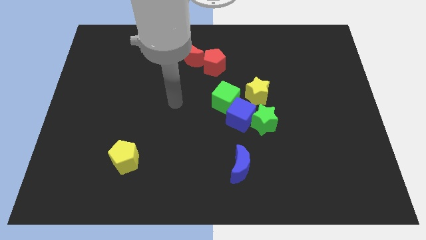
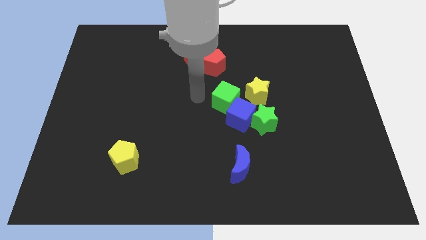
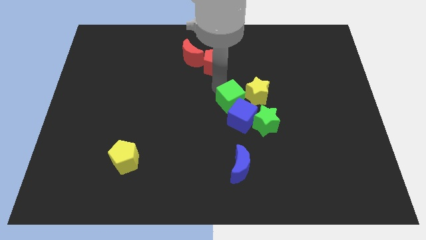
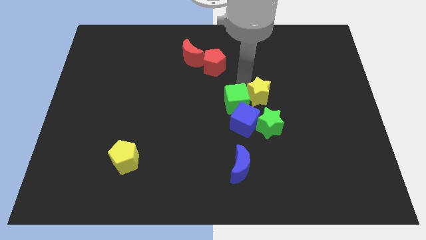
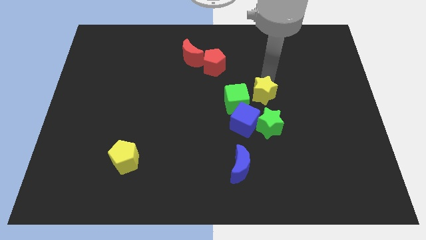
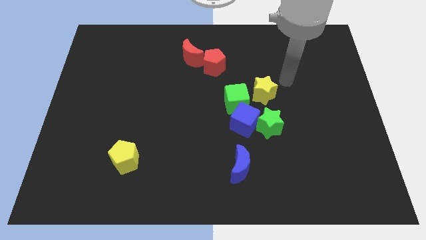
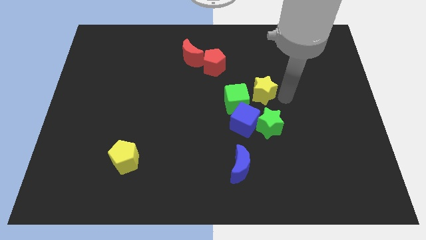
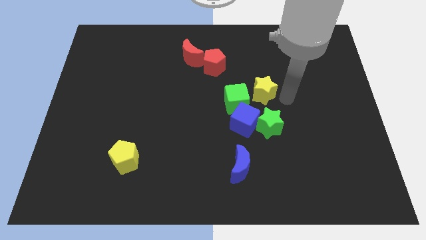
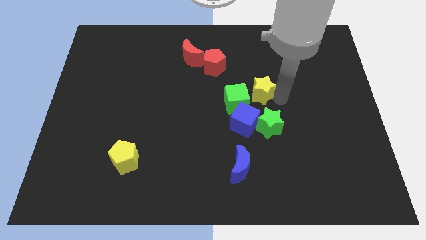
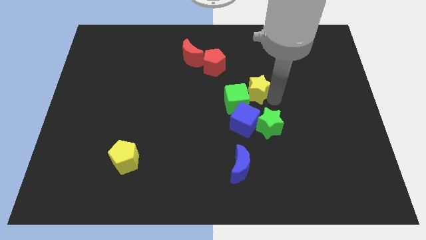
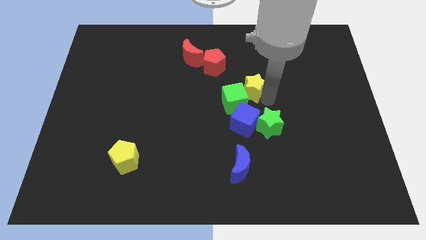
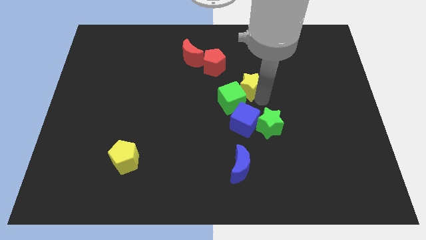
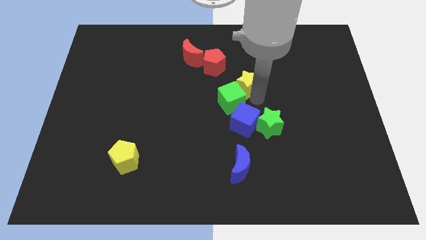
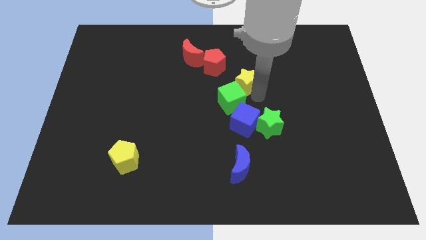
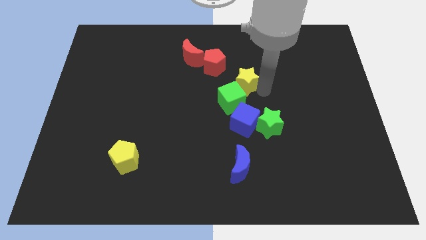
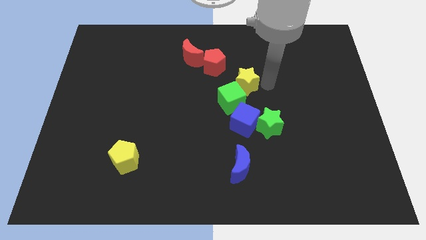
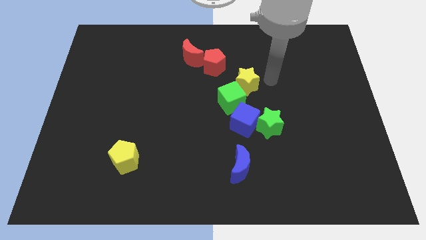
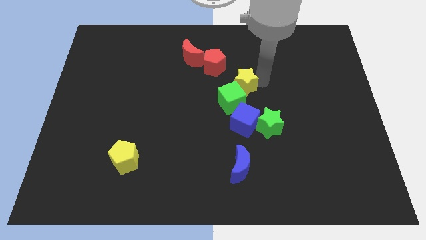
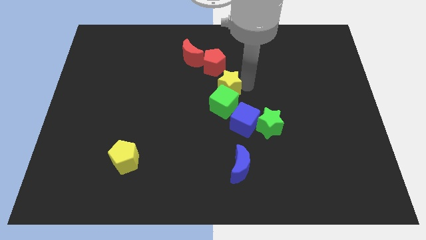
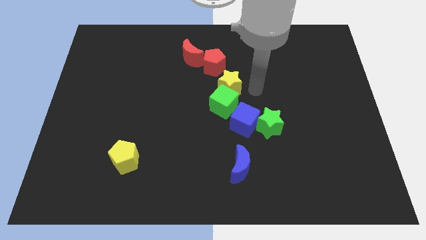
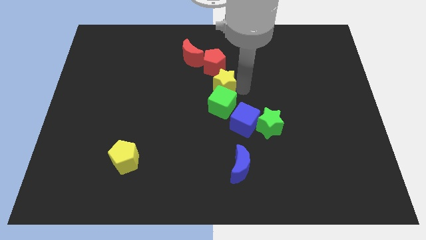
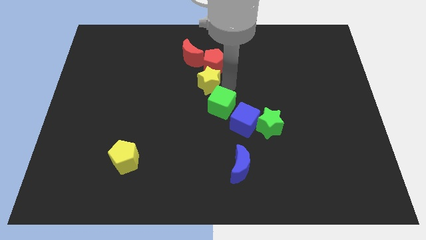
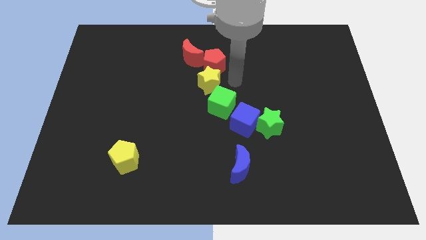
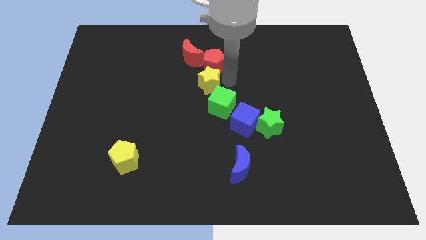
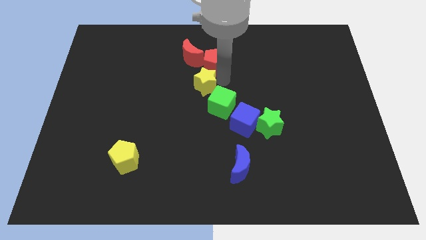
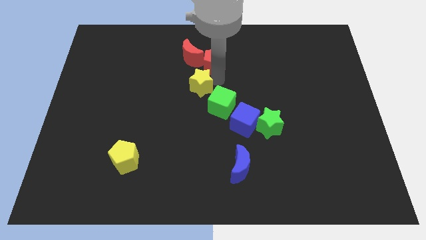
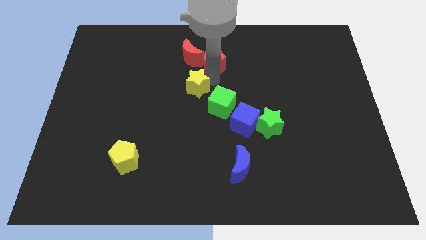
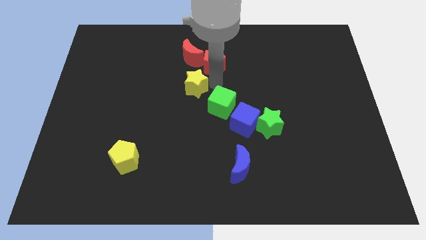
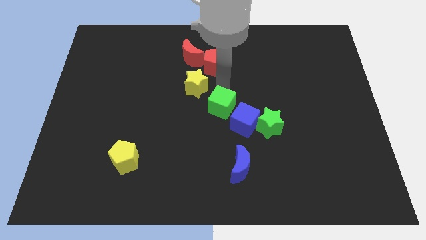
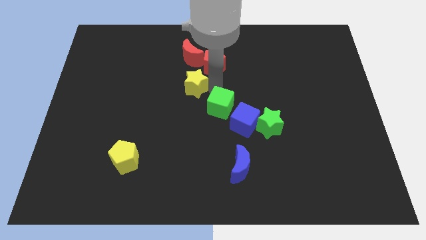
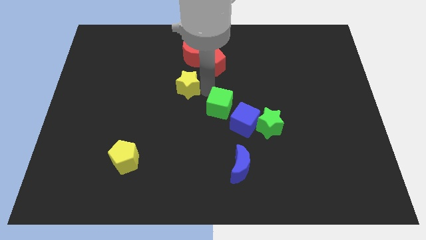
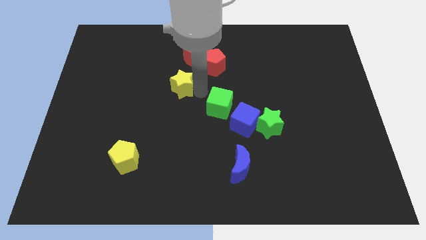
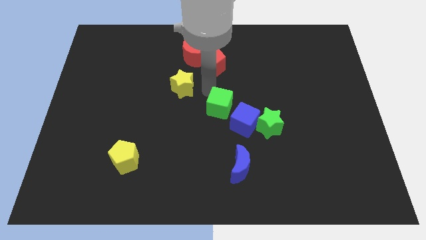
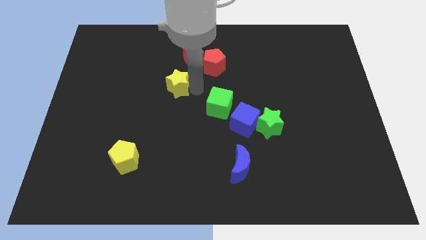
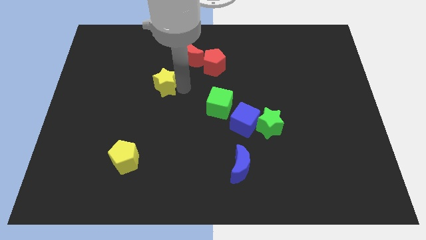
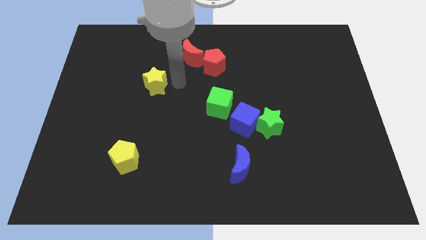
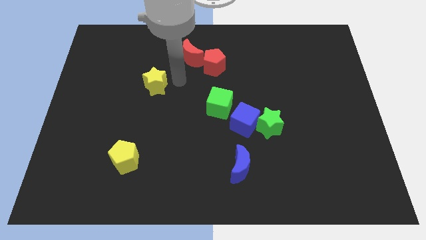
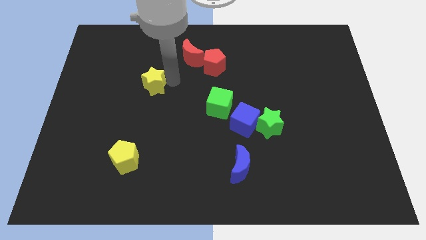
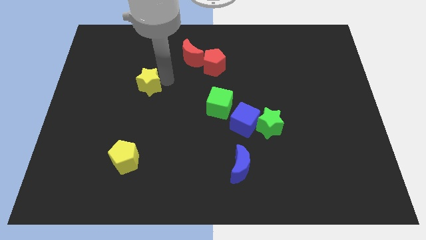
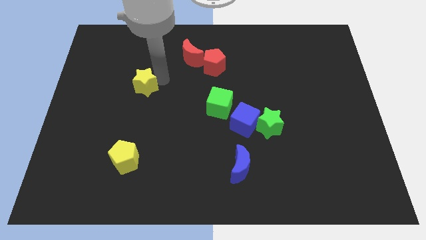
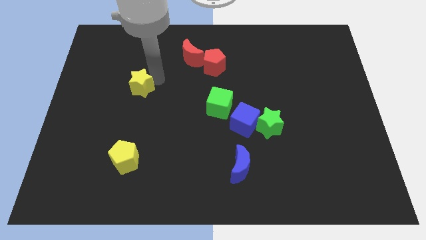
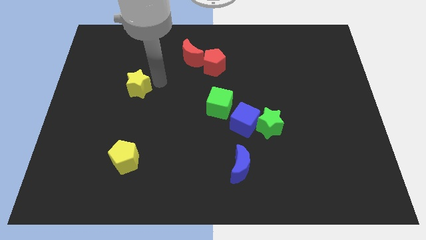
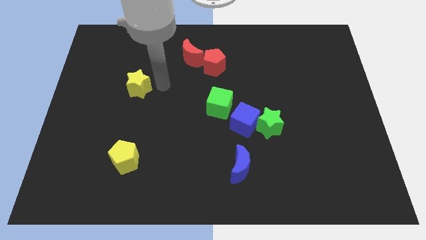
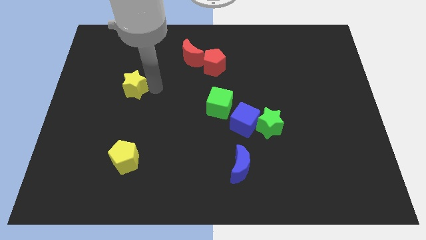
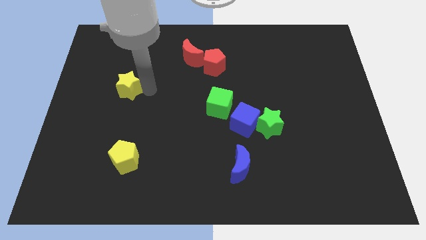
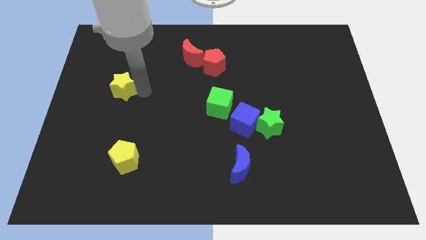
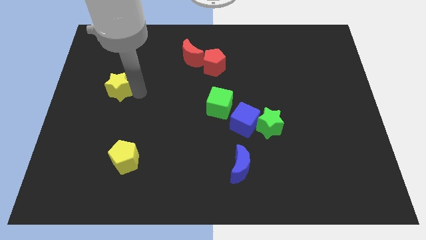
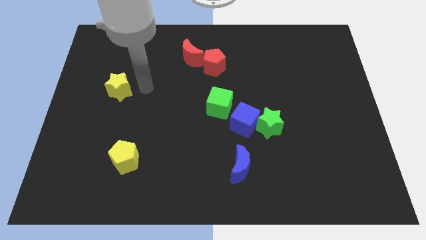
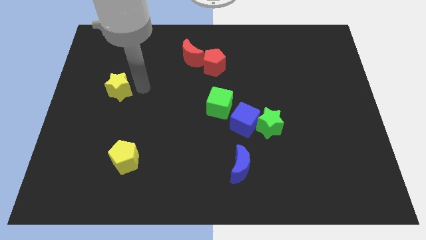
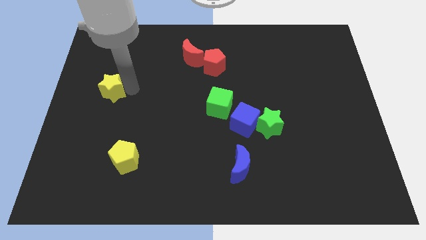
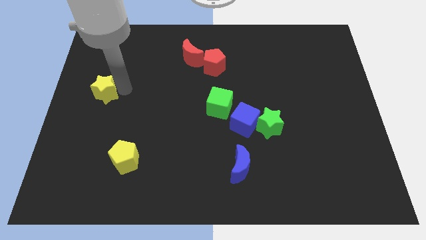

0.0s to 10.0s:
slide the yellow star to the center left

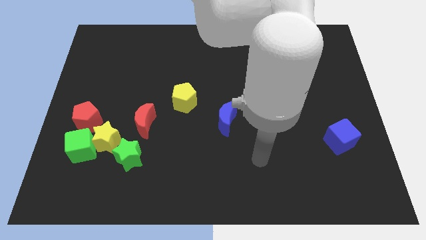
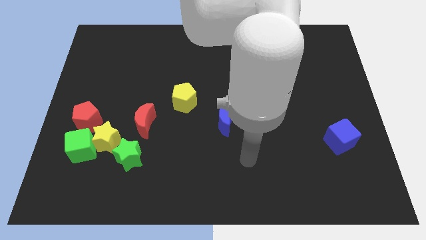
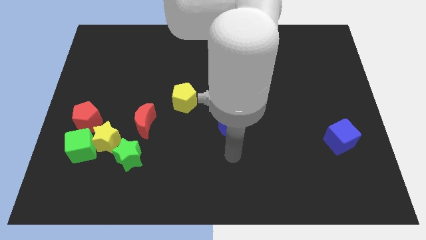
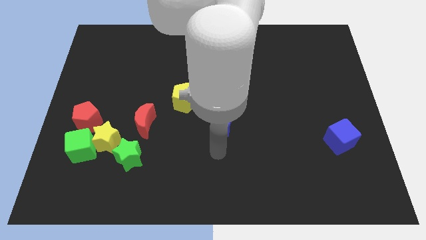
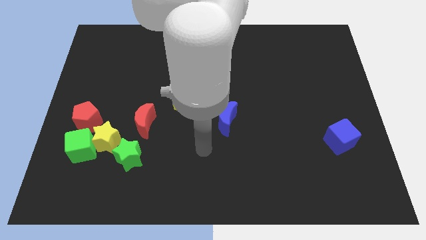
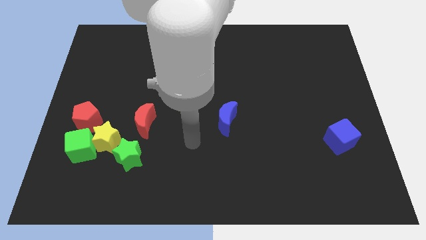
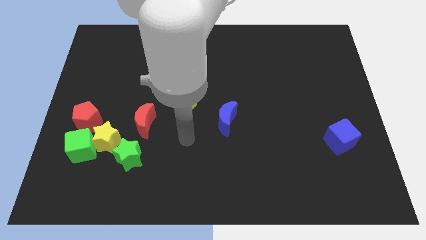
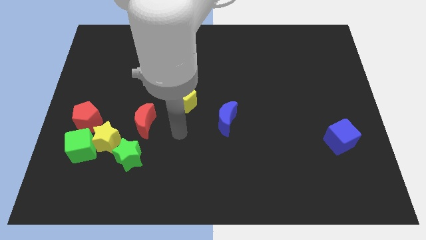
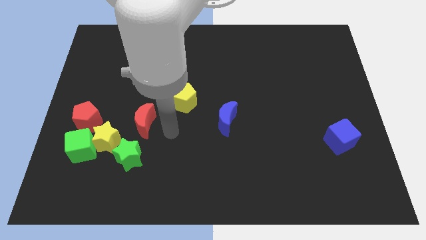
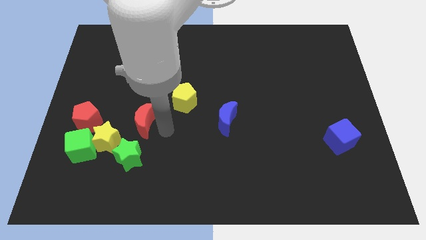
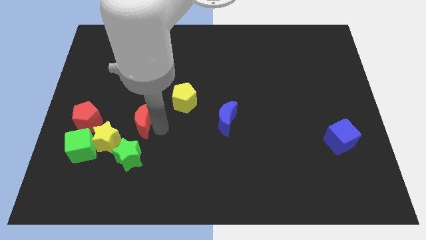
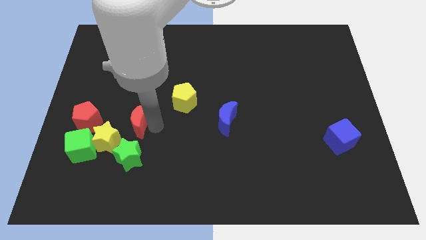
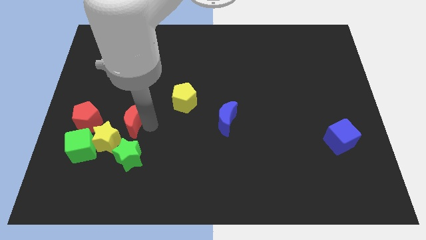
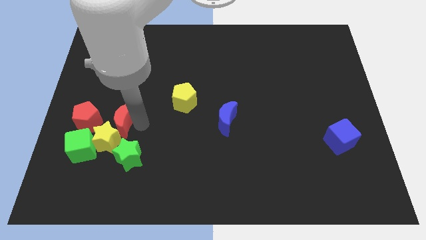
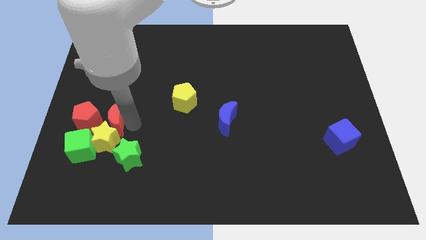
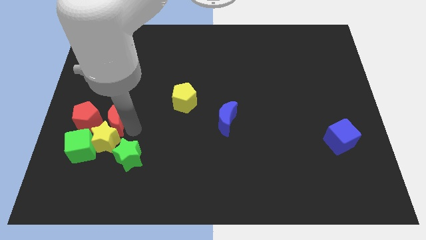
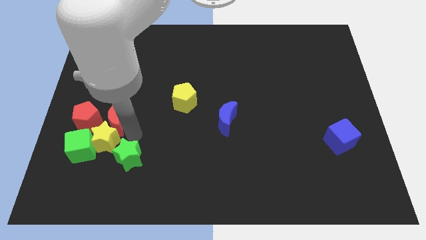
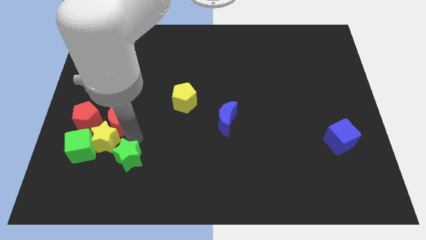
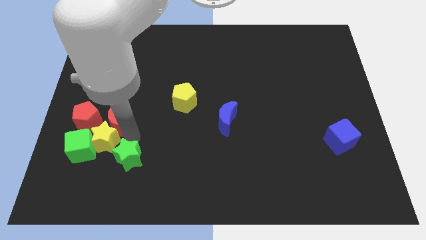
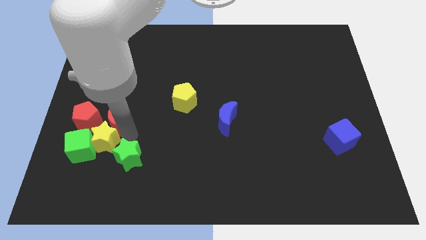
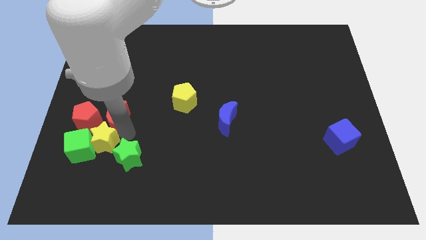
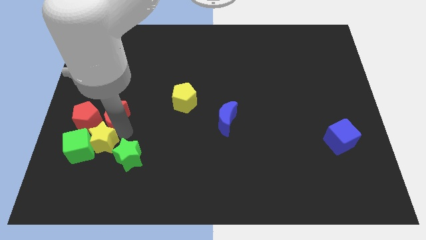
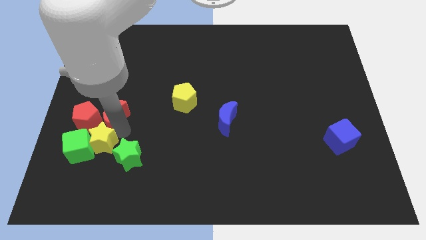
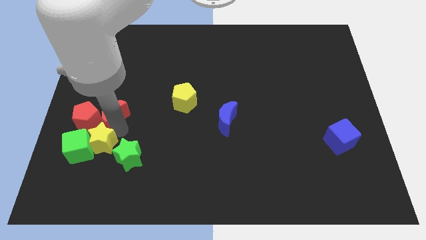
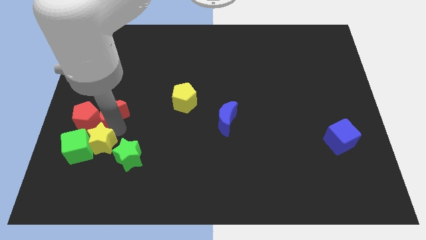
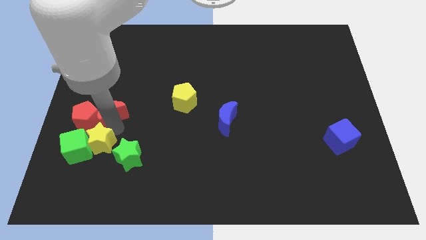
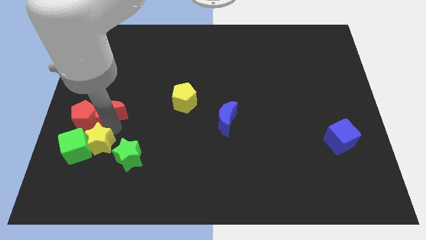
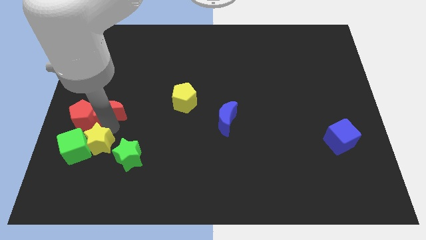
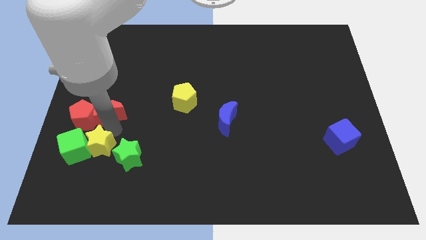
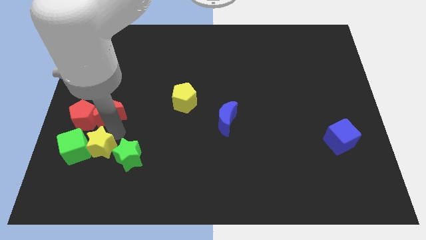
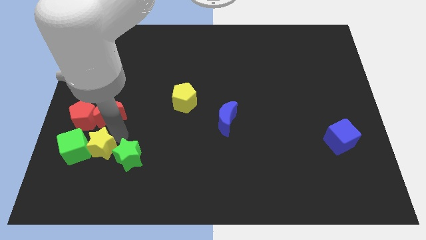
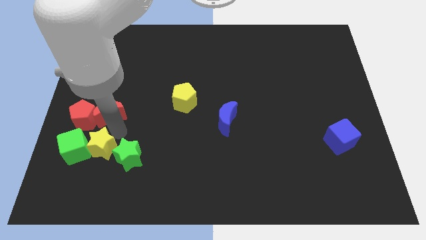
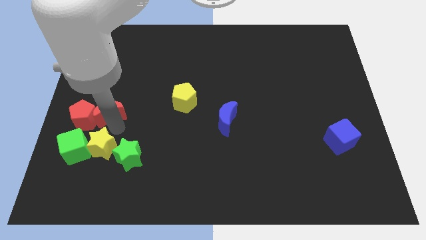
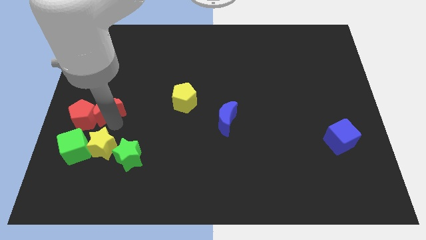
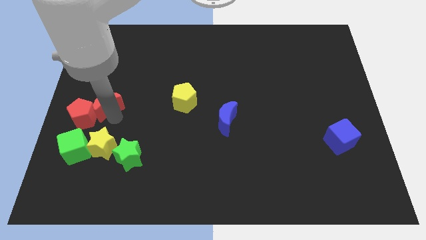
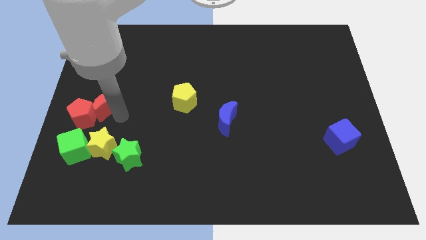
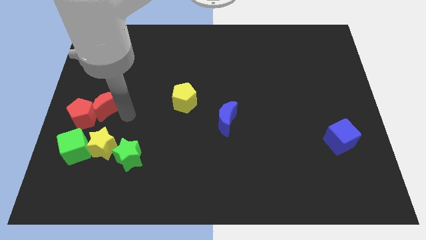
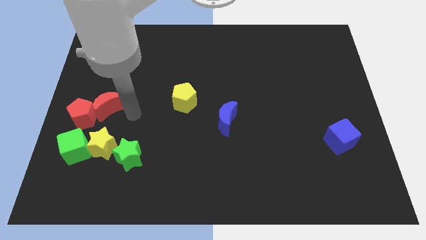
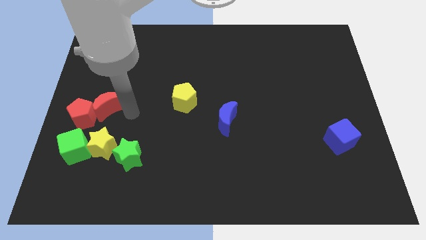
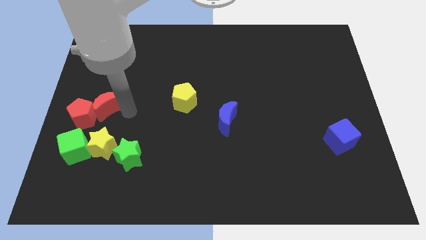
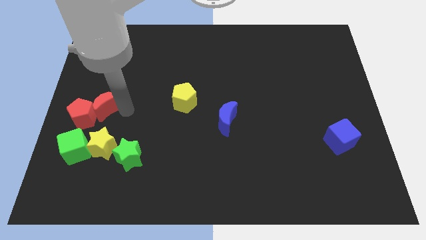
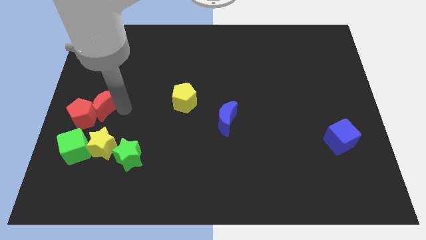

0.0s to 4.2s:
put the red moon to the left side
